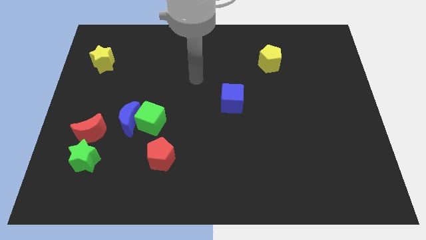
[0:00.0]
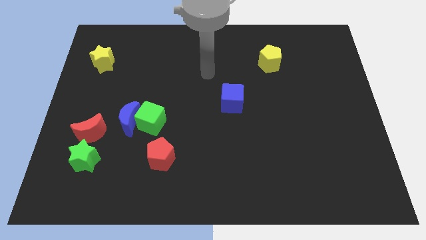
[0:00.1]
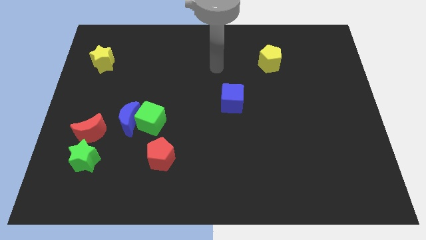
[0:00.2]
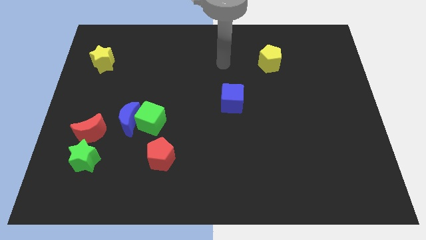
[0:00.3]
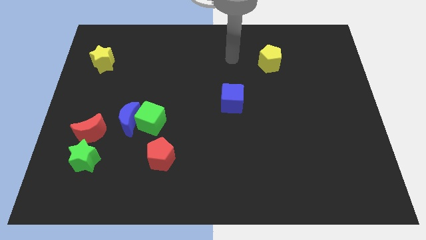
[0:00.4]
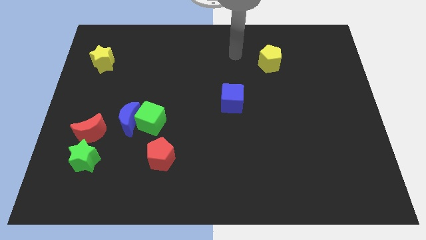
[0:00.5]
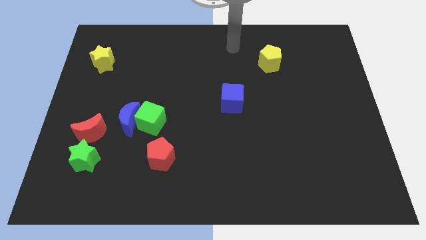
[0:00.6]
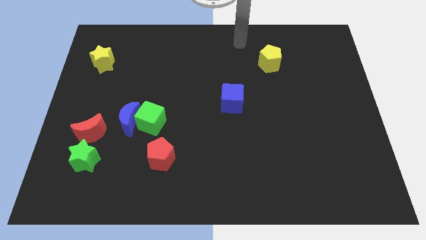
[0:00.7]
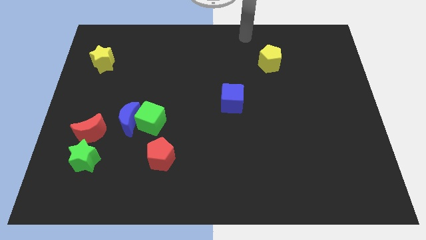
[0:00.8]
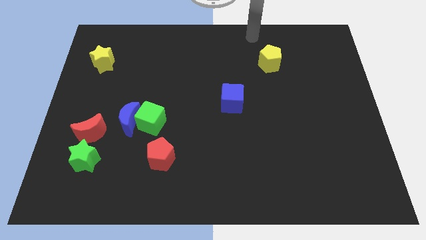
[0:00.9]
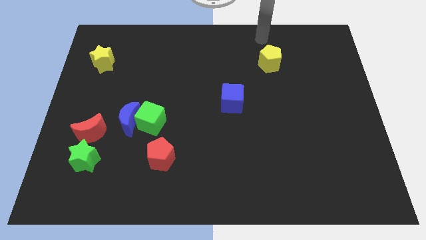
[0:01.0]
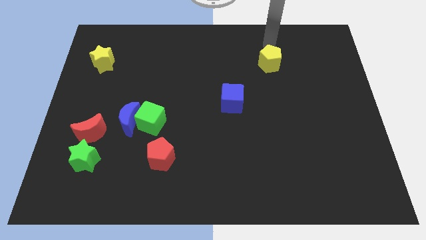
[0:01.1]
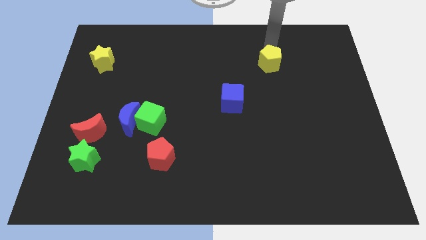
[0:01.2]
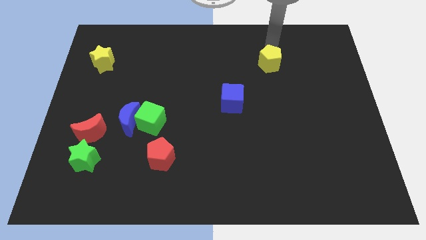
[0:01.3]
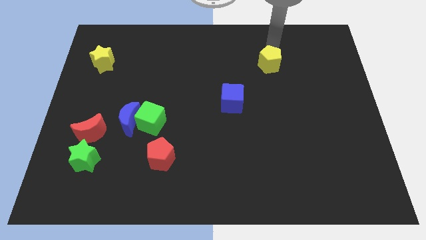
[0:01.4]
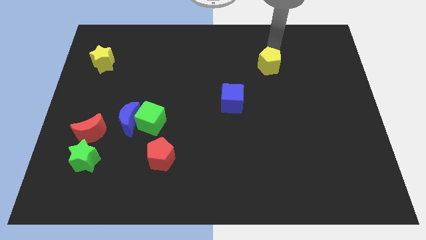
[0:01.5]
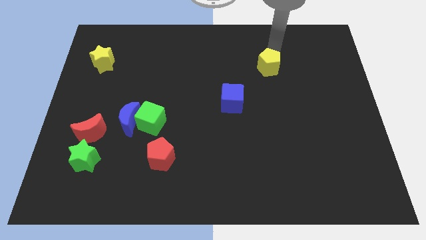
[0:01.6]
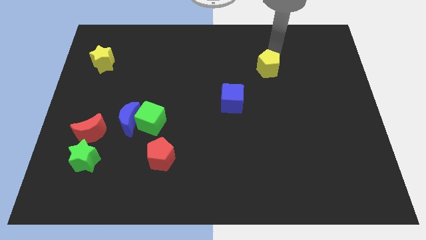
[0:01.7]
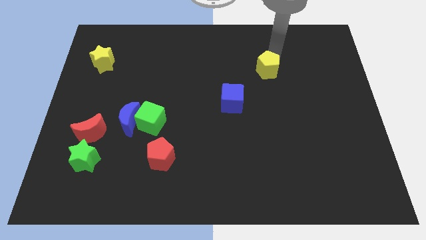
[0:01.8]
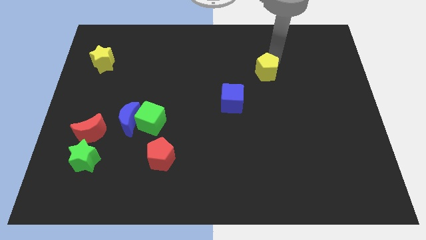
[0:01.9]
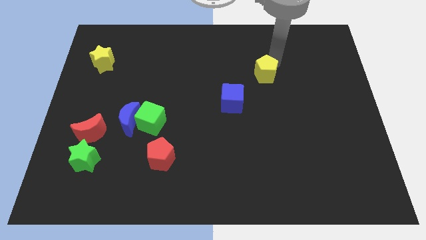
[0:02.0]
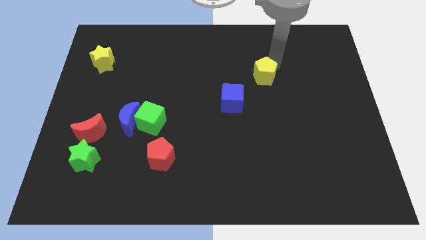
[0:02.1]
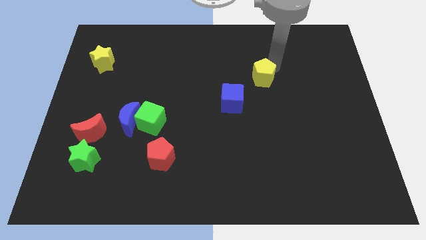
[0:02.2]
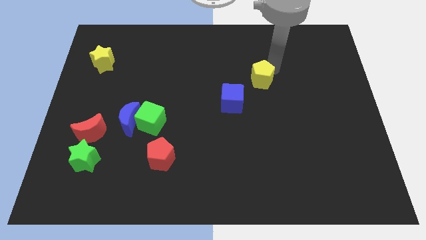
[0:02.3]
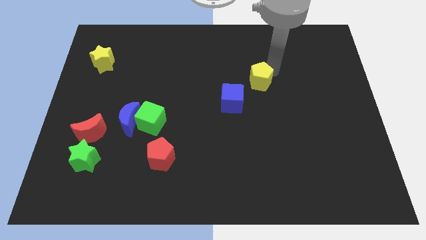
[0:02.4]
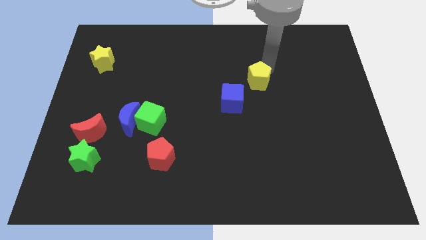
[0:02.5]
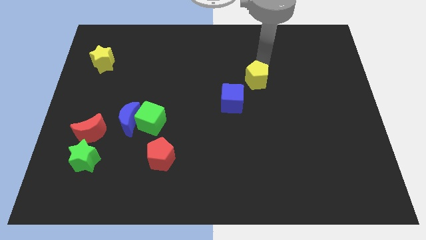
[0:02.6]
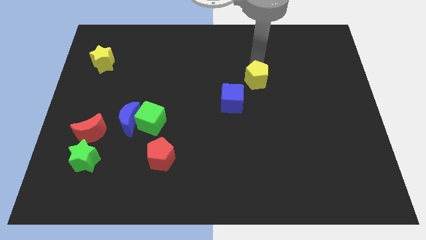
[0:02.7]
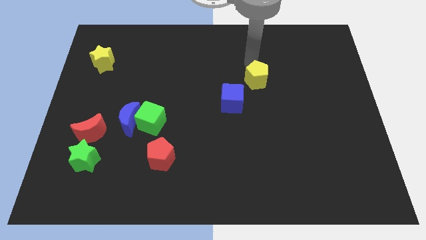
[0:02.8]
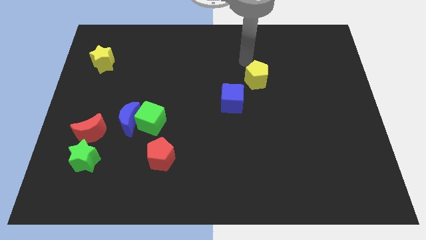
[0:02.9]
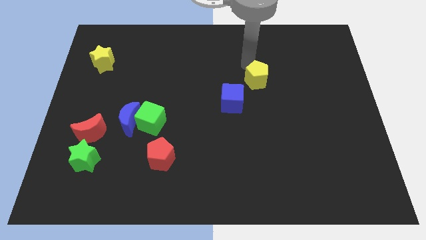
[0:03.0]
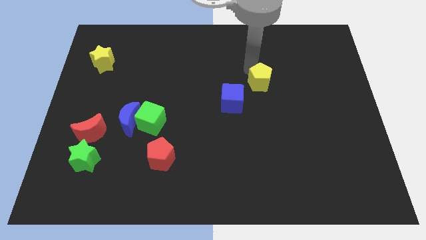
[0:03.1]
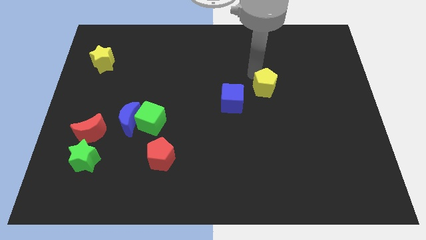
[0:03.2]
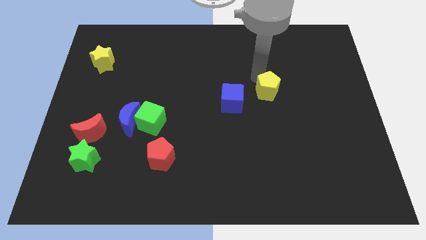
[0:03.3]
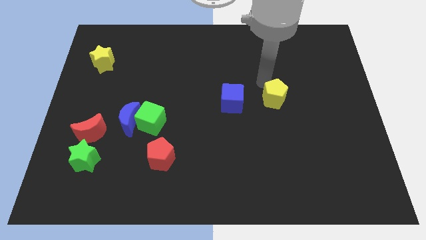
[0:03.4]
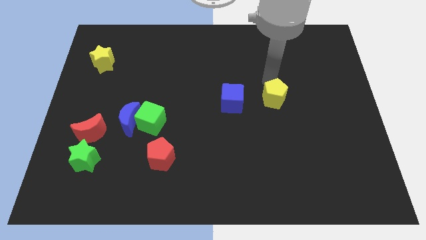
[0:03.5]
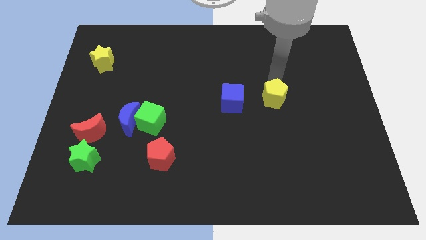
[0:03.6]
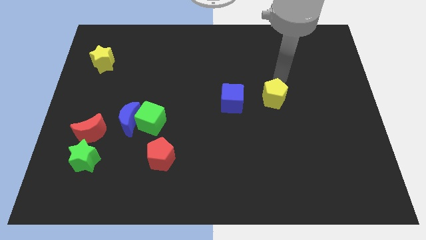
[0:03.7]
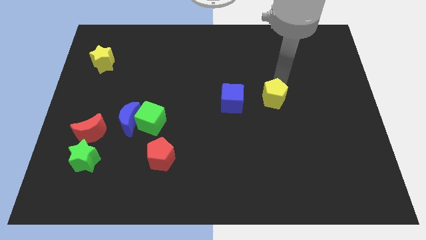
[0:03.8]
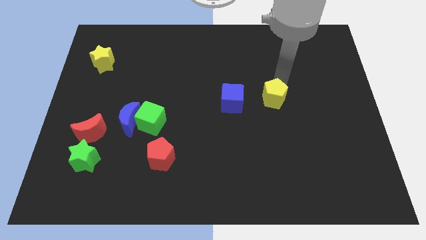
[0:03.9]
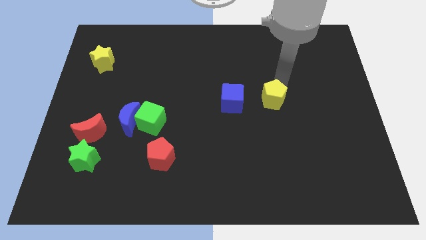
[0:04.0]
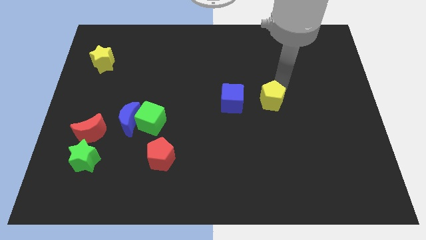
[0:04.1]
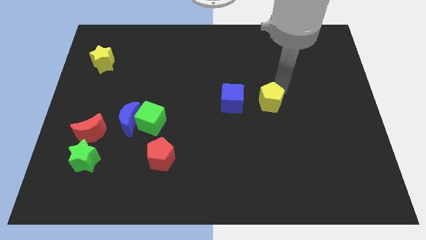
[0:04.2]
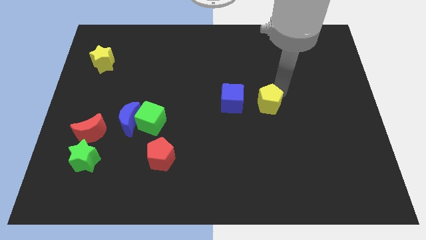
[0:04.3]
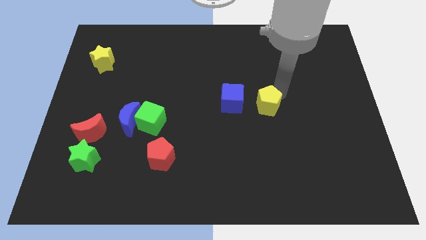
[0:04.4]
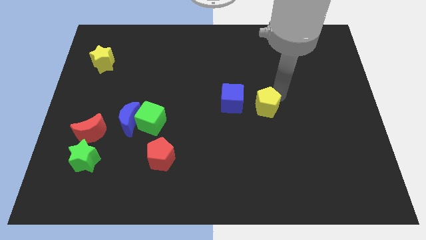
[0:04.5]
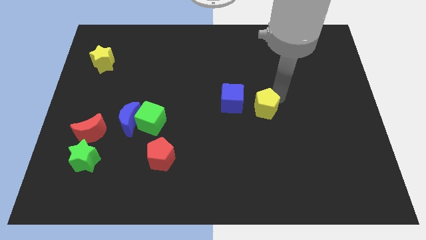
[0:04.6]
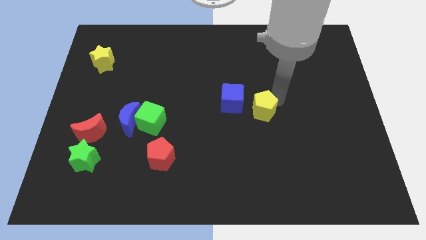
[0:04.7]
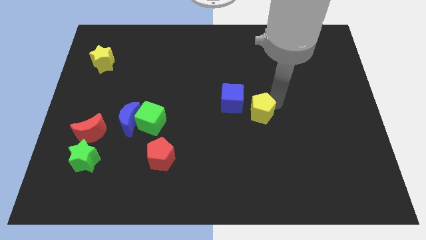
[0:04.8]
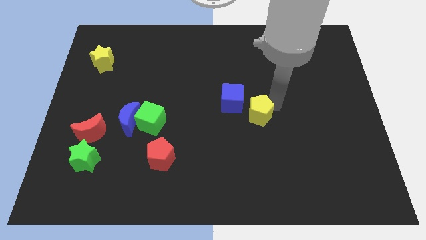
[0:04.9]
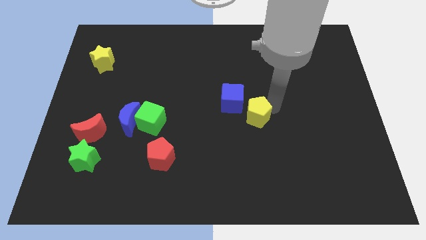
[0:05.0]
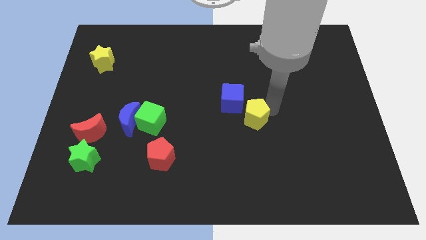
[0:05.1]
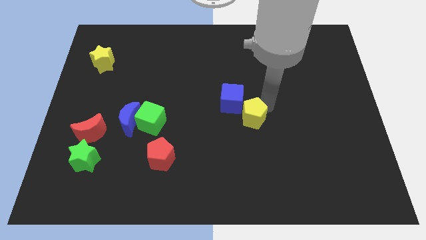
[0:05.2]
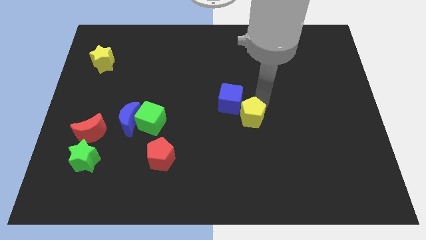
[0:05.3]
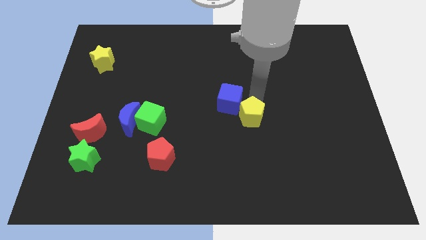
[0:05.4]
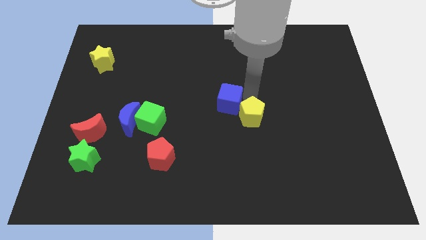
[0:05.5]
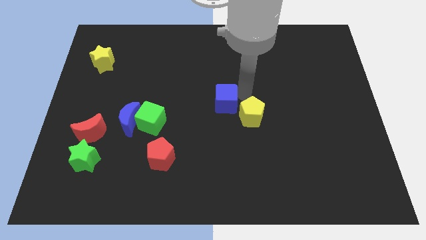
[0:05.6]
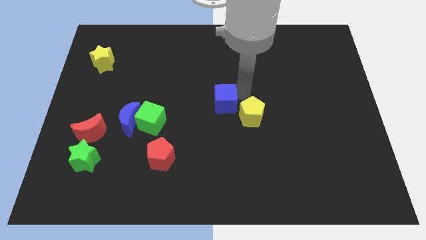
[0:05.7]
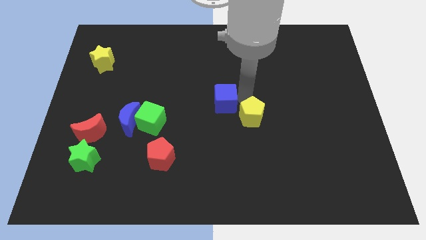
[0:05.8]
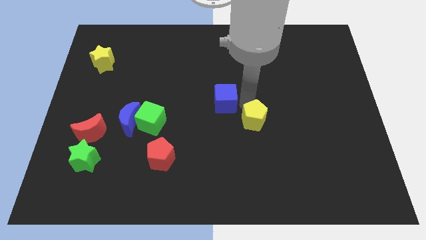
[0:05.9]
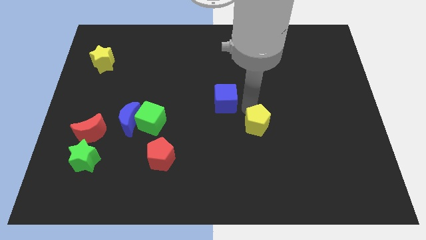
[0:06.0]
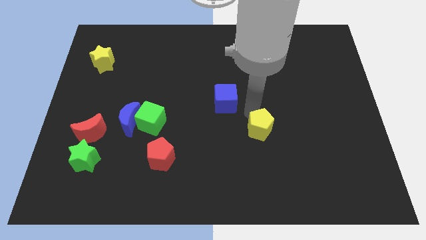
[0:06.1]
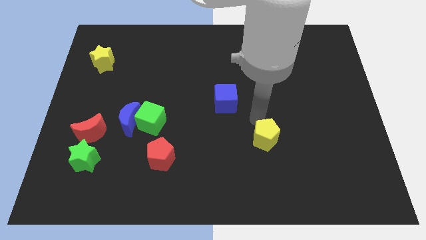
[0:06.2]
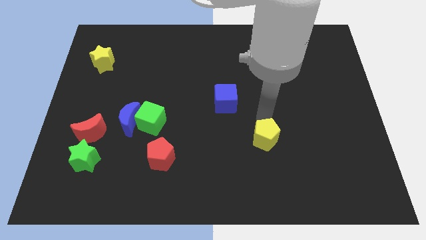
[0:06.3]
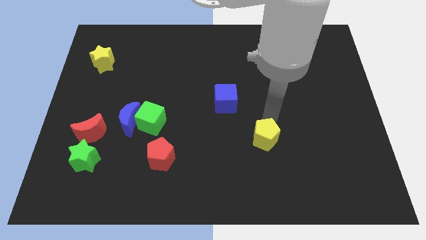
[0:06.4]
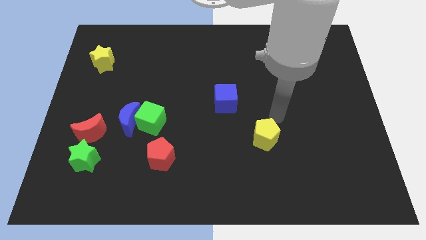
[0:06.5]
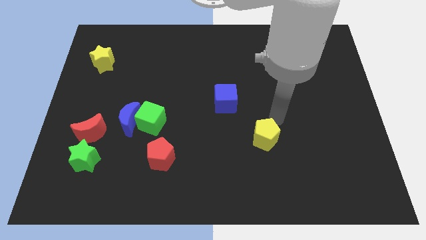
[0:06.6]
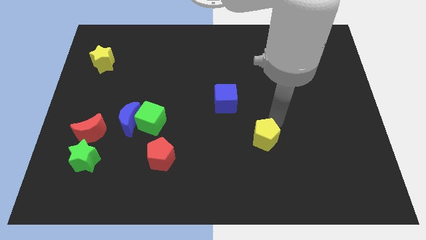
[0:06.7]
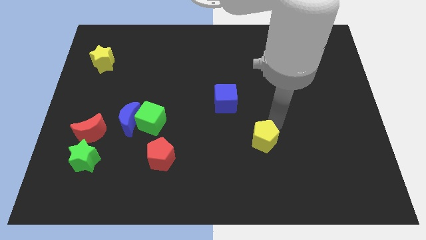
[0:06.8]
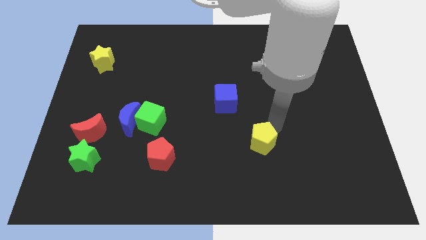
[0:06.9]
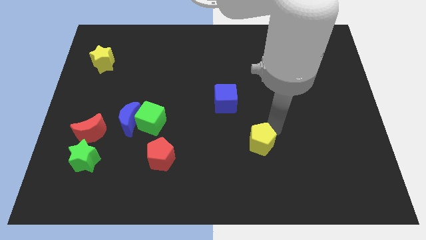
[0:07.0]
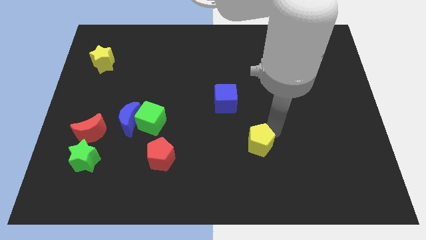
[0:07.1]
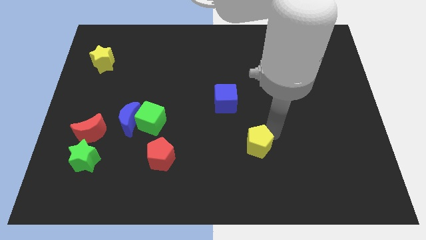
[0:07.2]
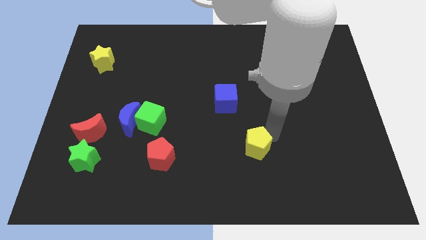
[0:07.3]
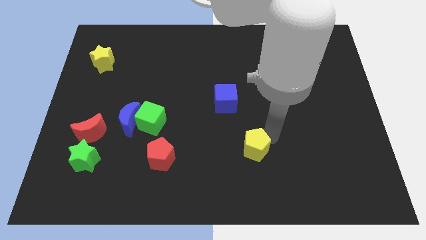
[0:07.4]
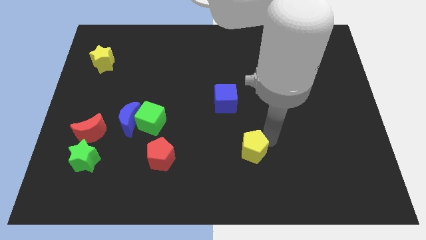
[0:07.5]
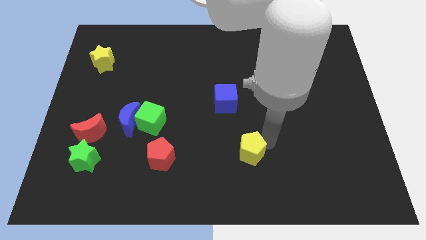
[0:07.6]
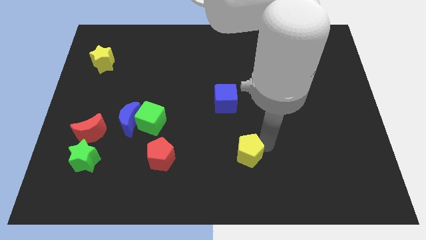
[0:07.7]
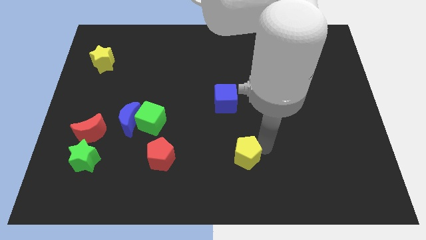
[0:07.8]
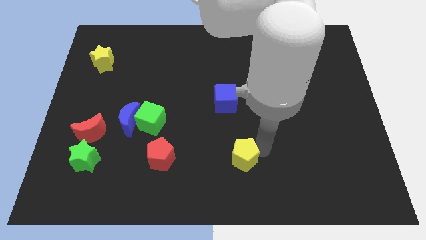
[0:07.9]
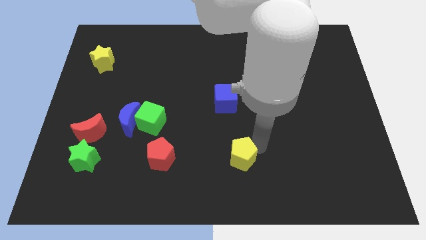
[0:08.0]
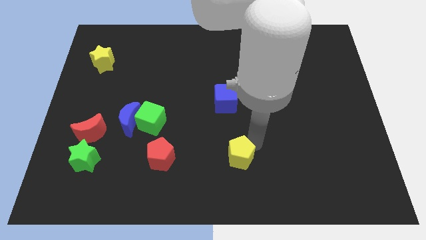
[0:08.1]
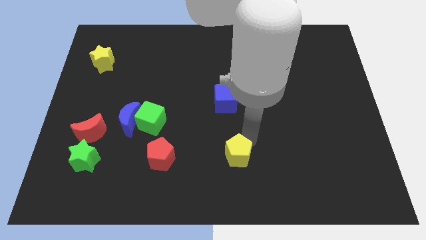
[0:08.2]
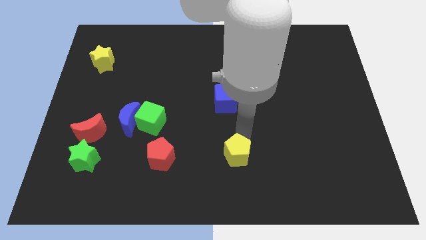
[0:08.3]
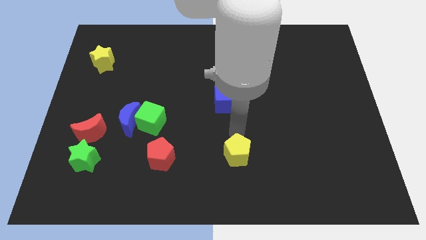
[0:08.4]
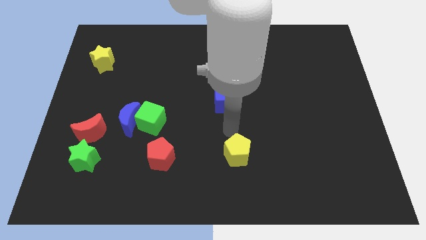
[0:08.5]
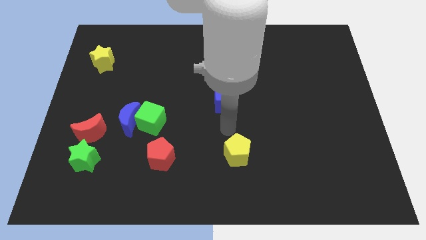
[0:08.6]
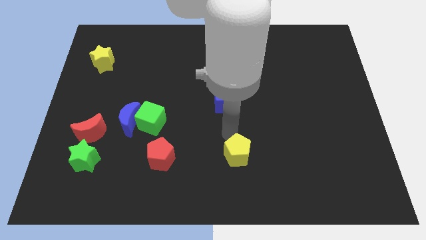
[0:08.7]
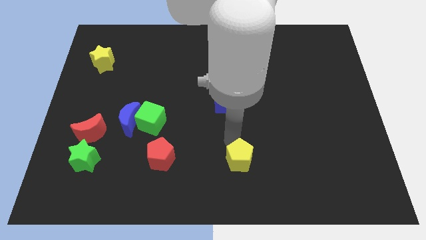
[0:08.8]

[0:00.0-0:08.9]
move the yellow pentagon to the bottom side
